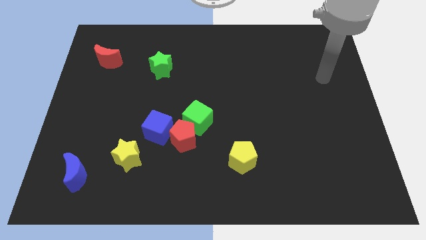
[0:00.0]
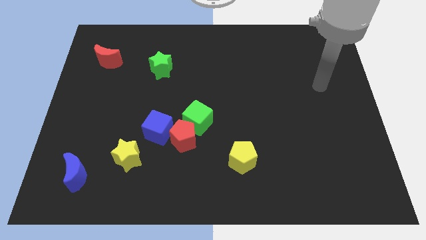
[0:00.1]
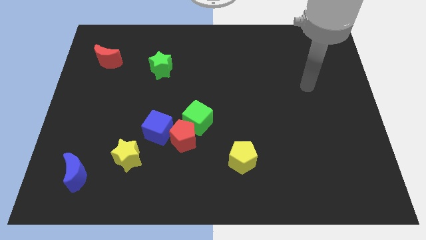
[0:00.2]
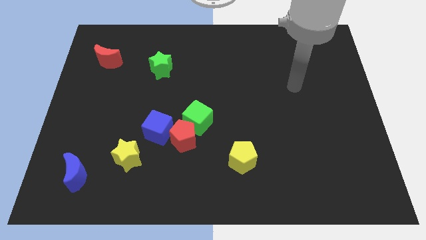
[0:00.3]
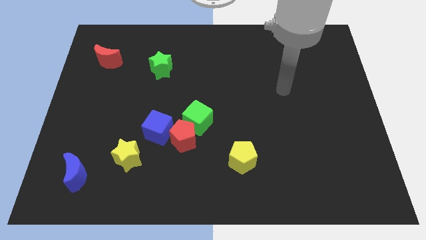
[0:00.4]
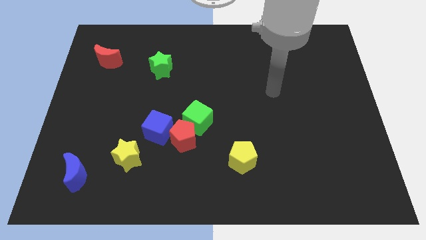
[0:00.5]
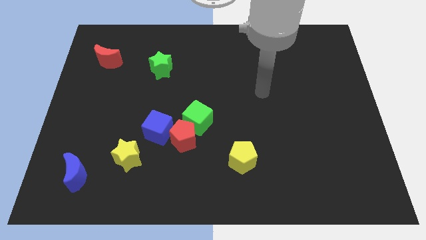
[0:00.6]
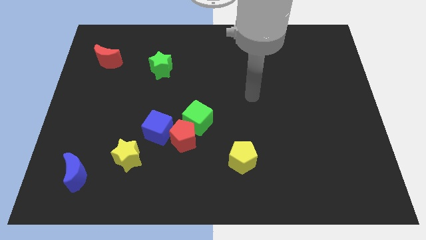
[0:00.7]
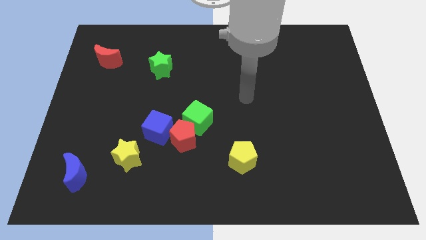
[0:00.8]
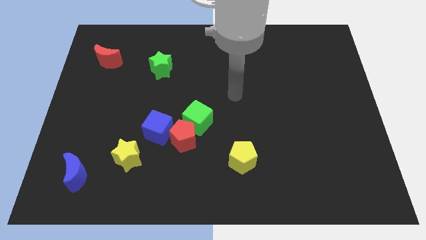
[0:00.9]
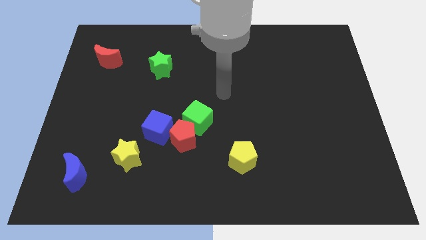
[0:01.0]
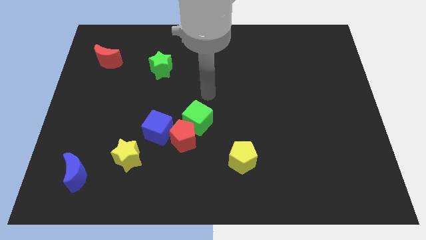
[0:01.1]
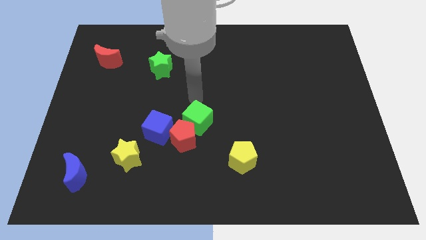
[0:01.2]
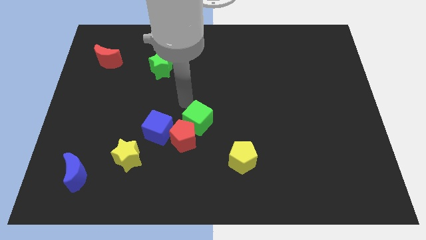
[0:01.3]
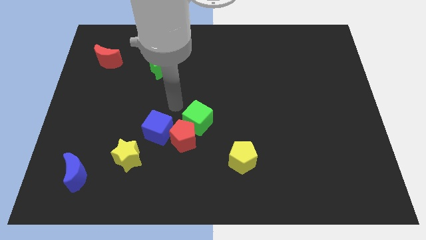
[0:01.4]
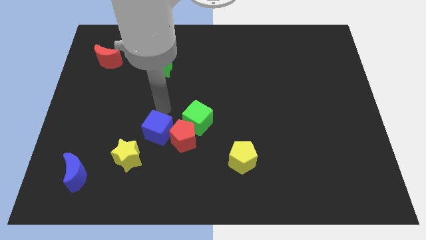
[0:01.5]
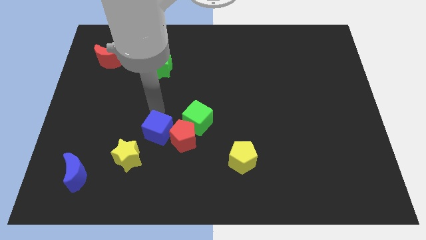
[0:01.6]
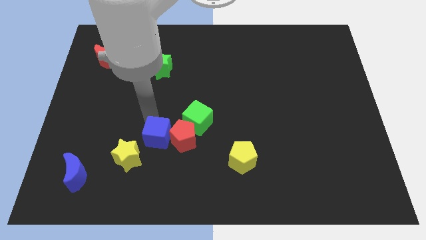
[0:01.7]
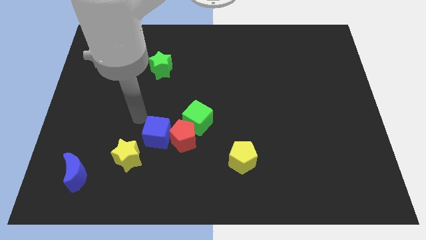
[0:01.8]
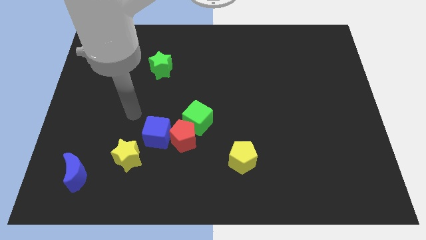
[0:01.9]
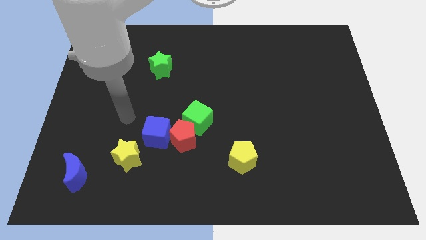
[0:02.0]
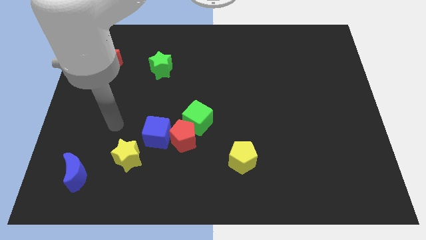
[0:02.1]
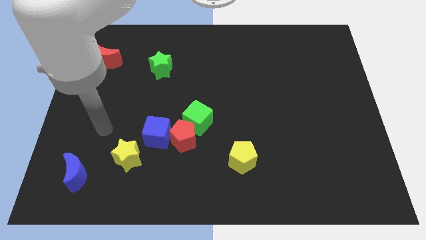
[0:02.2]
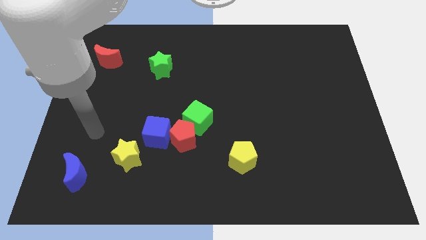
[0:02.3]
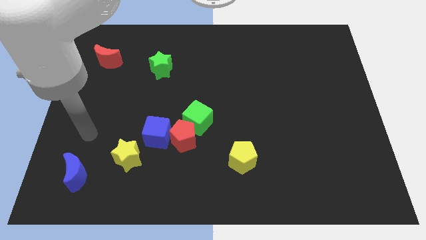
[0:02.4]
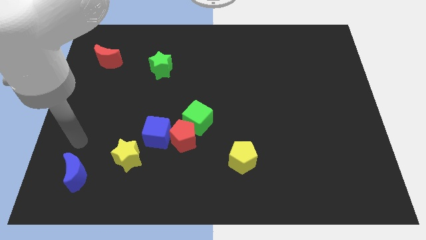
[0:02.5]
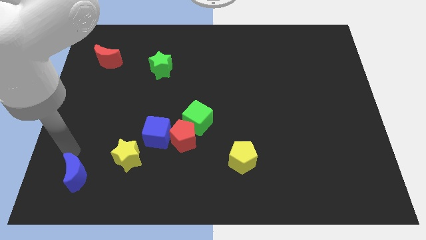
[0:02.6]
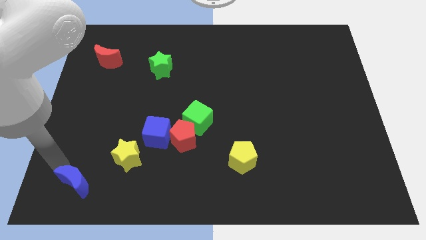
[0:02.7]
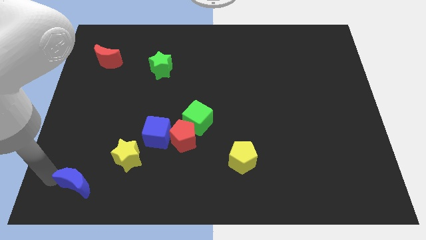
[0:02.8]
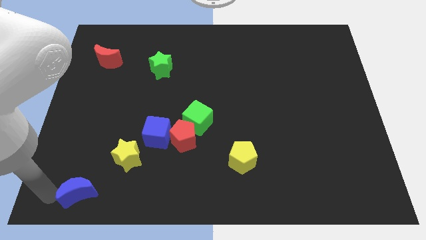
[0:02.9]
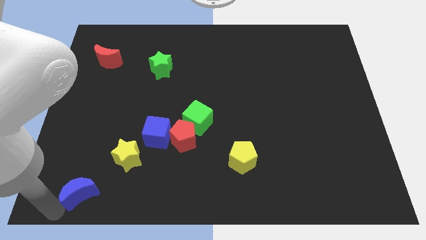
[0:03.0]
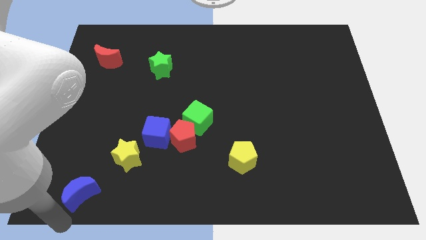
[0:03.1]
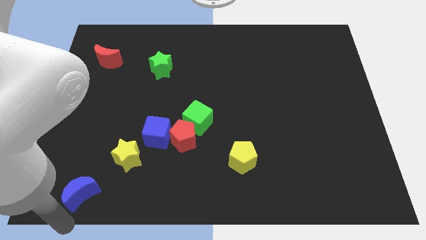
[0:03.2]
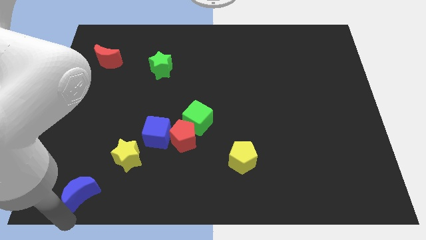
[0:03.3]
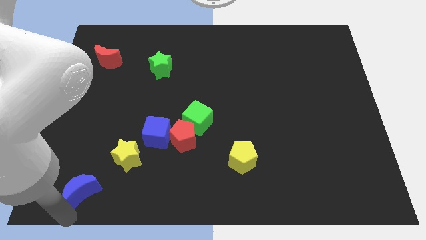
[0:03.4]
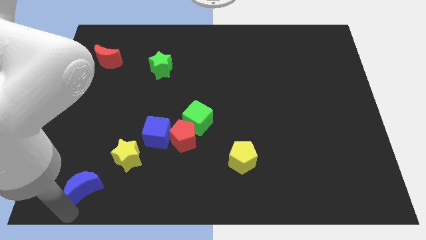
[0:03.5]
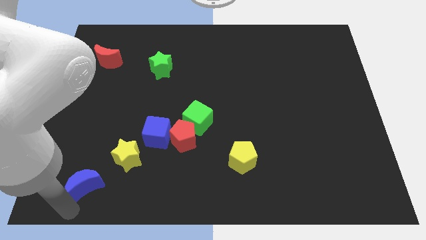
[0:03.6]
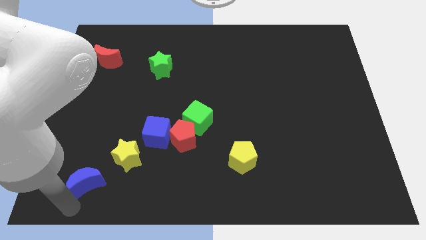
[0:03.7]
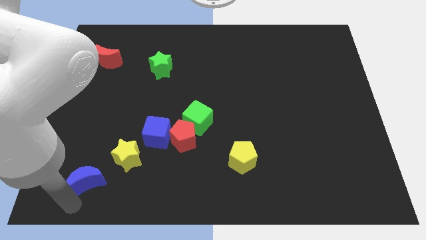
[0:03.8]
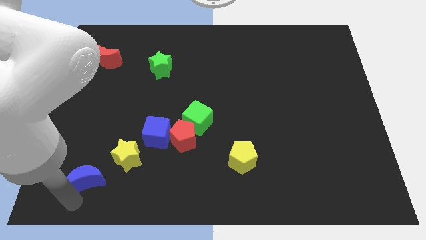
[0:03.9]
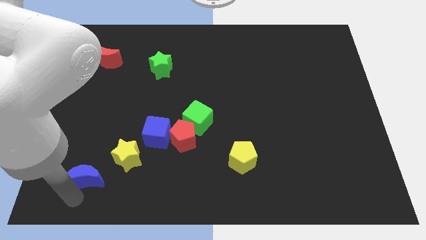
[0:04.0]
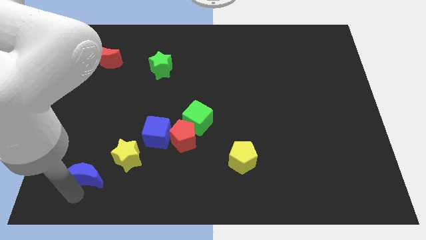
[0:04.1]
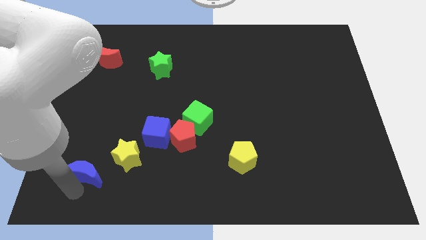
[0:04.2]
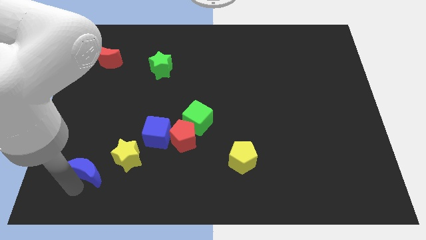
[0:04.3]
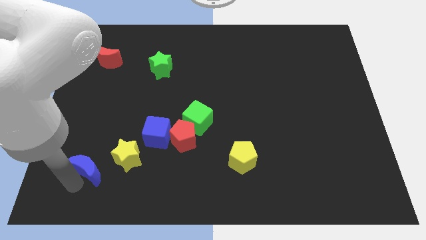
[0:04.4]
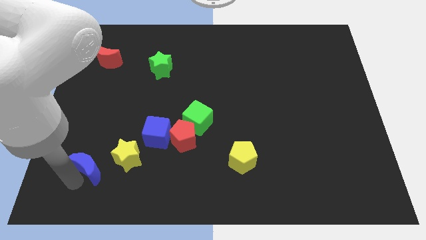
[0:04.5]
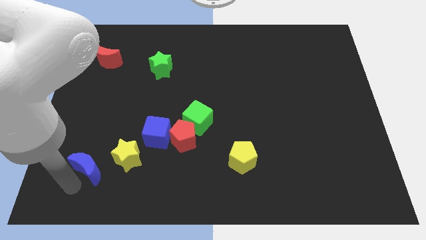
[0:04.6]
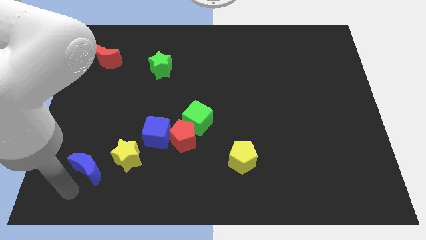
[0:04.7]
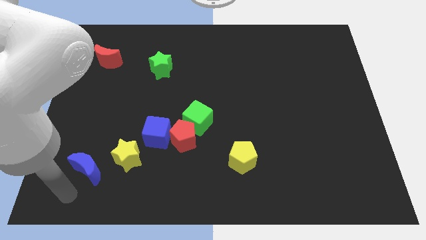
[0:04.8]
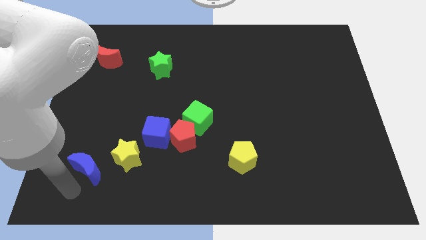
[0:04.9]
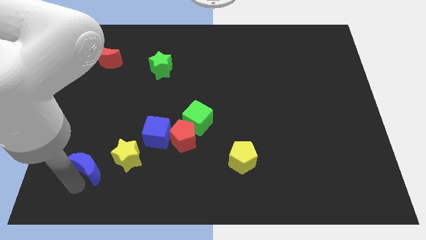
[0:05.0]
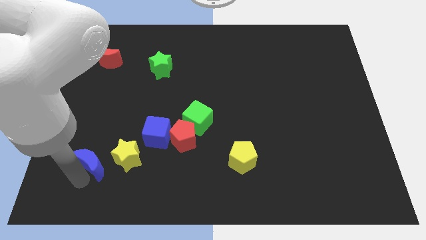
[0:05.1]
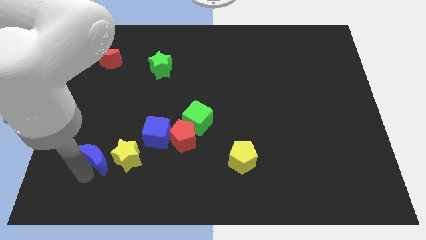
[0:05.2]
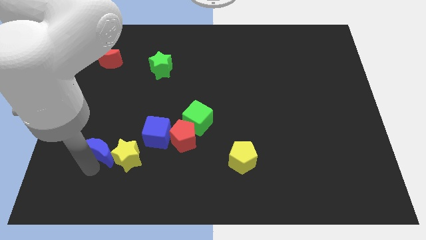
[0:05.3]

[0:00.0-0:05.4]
put the blue moon to the top left of the yellow star

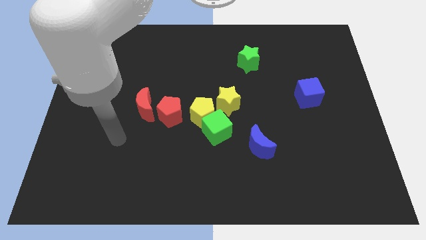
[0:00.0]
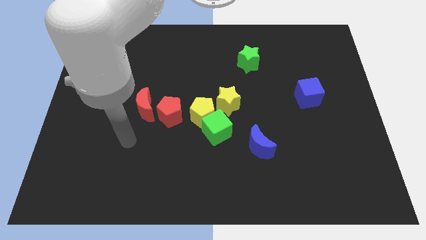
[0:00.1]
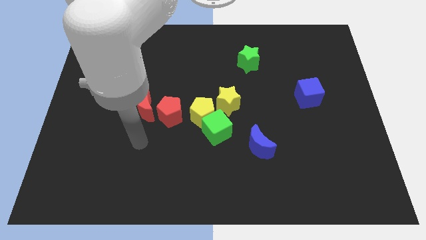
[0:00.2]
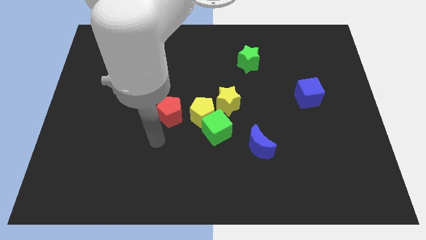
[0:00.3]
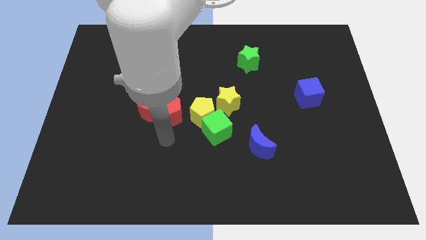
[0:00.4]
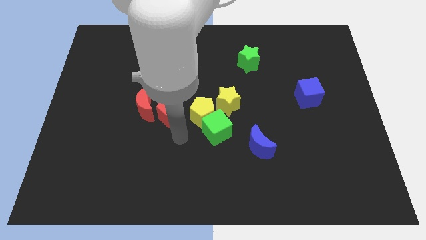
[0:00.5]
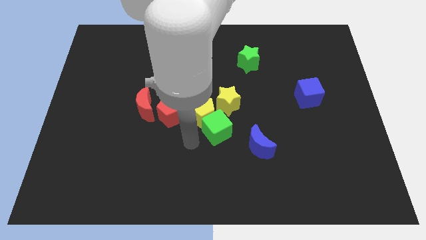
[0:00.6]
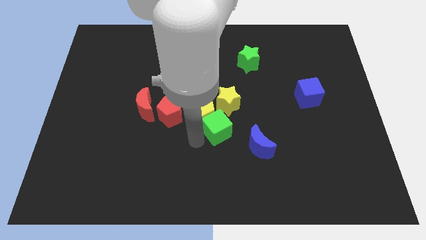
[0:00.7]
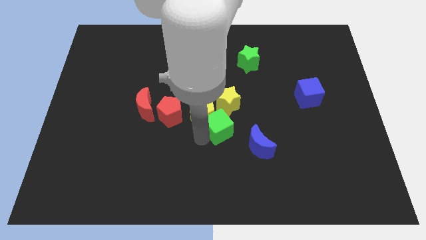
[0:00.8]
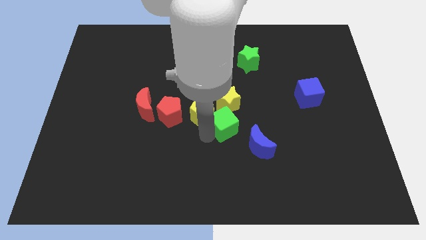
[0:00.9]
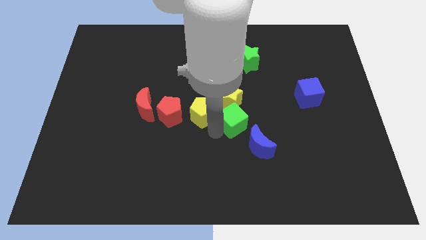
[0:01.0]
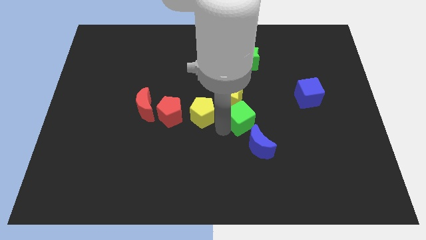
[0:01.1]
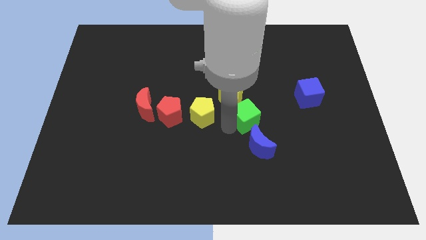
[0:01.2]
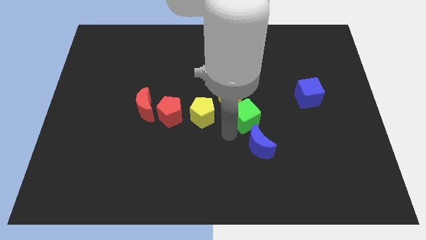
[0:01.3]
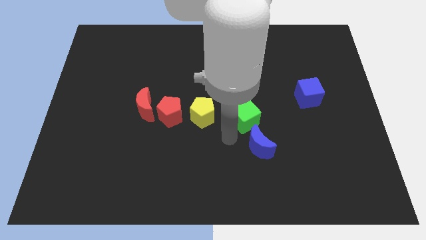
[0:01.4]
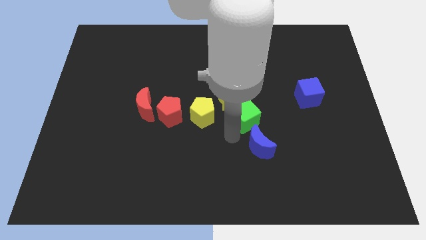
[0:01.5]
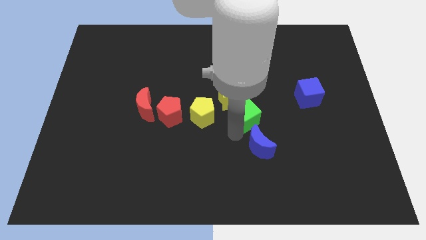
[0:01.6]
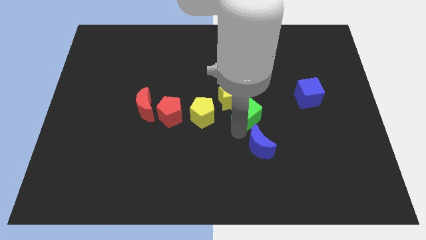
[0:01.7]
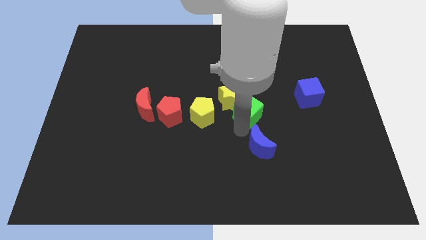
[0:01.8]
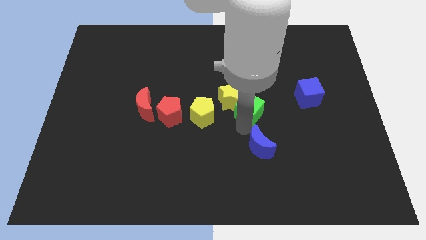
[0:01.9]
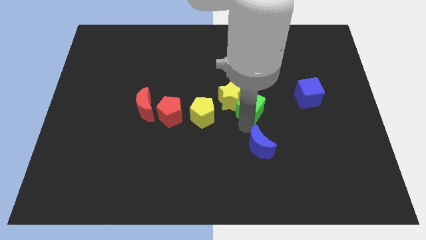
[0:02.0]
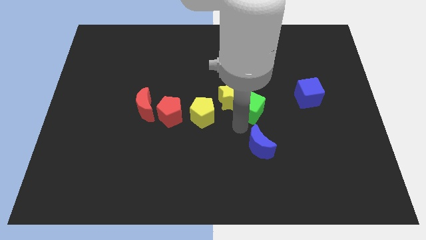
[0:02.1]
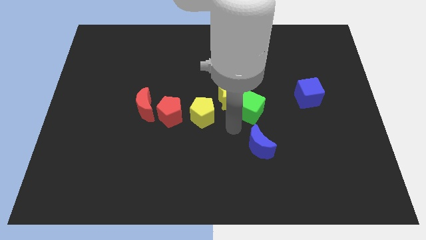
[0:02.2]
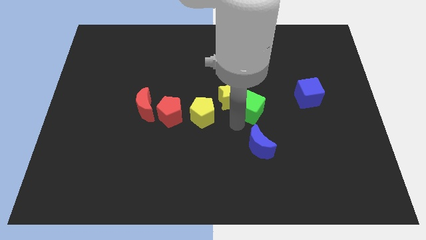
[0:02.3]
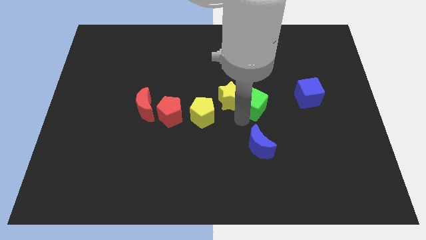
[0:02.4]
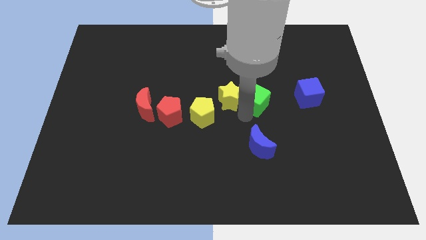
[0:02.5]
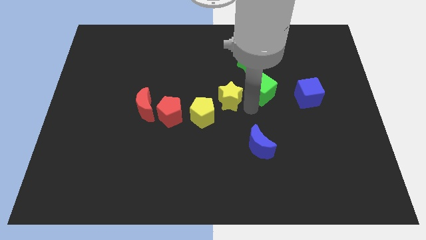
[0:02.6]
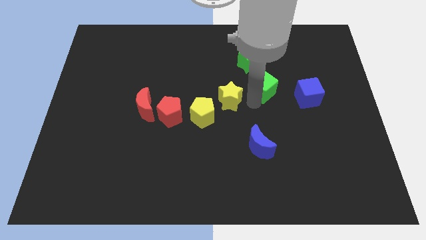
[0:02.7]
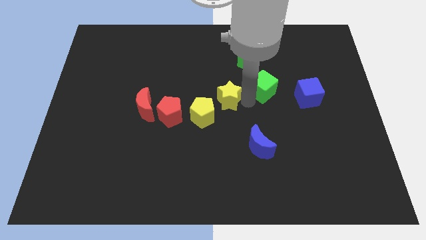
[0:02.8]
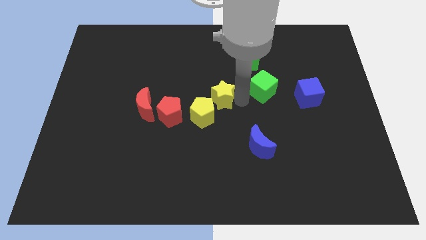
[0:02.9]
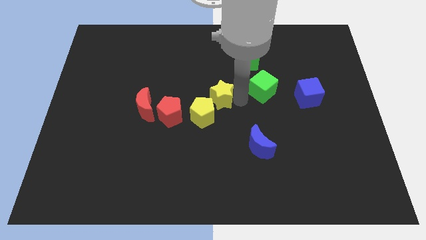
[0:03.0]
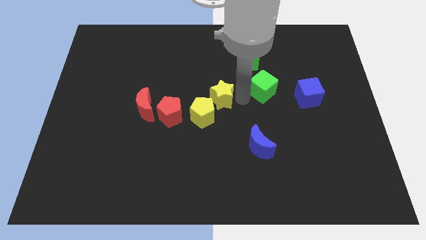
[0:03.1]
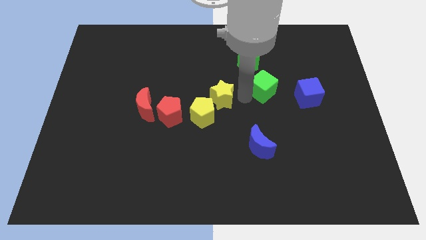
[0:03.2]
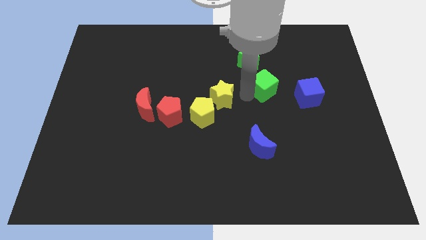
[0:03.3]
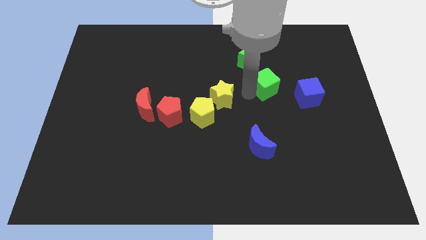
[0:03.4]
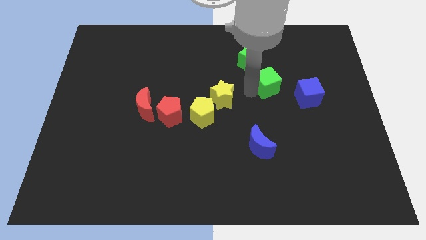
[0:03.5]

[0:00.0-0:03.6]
put the green cube to the top left of the blue cube
